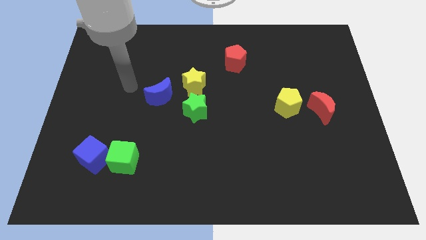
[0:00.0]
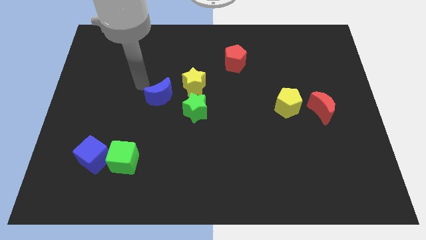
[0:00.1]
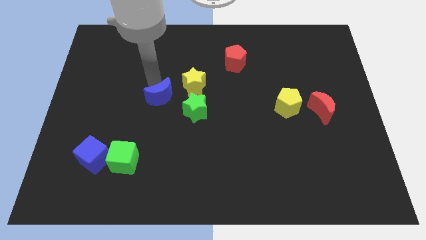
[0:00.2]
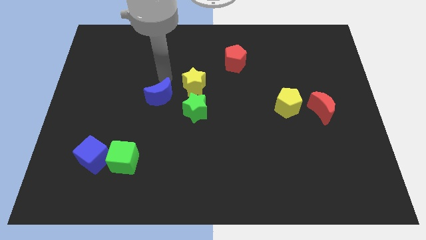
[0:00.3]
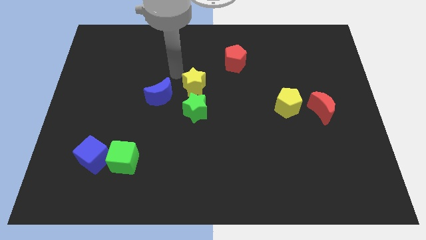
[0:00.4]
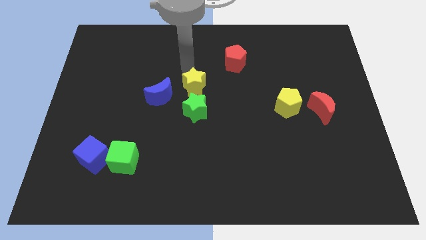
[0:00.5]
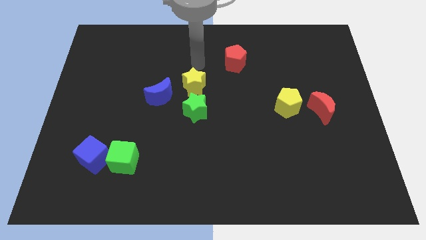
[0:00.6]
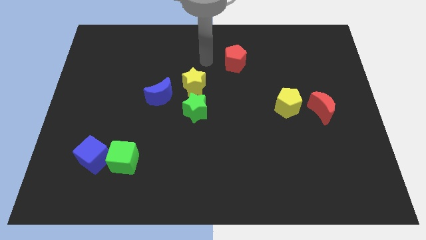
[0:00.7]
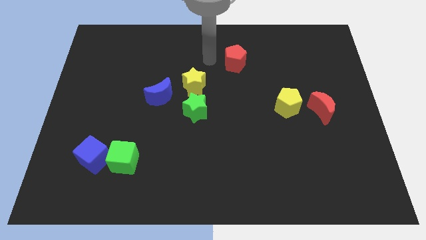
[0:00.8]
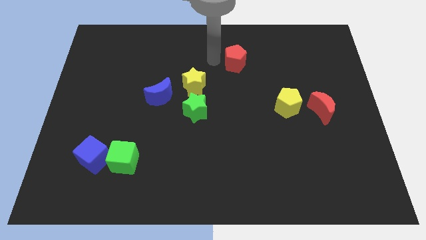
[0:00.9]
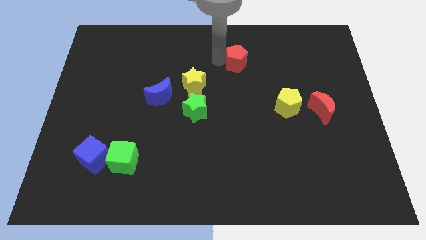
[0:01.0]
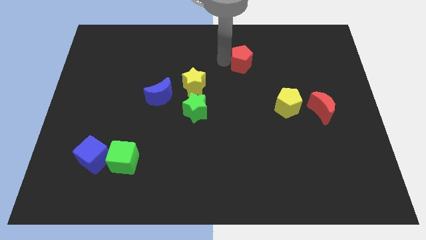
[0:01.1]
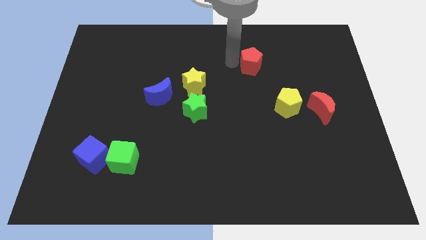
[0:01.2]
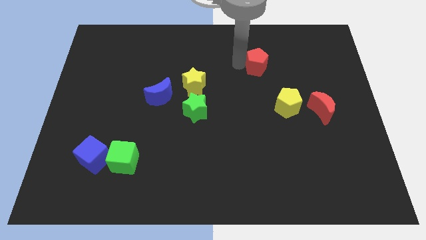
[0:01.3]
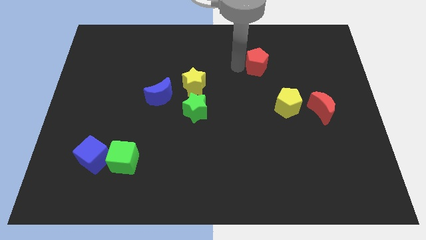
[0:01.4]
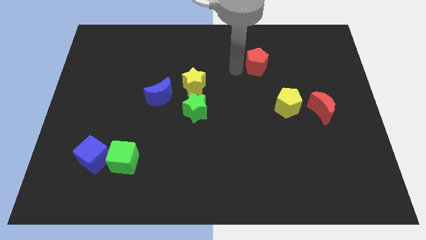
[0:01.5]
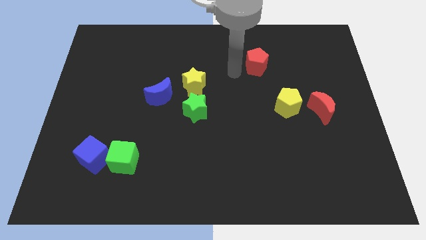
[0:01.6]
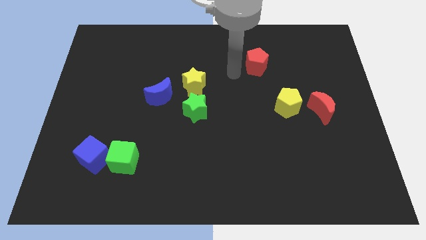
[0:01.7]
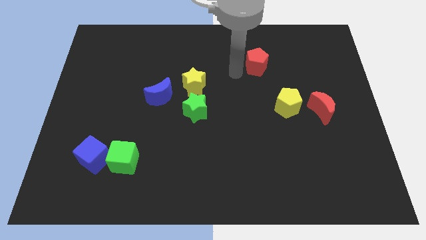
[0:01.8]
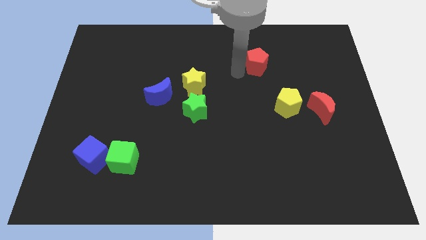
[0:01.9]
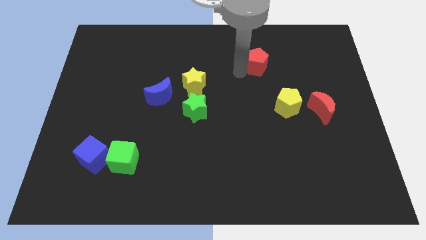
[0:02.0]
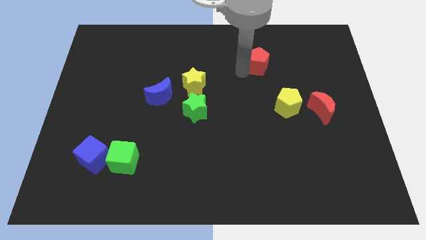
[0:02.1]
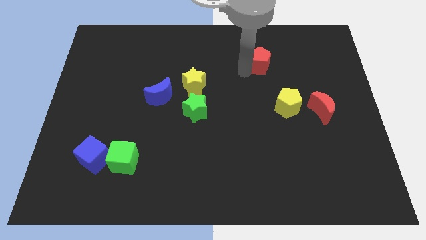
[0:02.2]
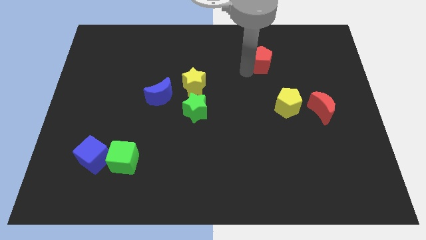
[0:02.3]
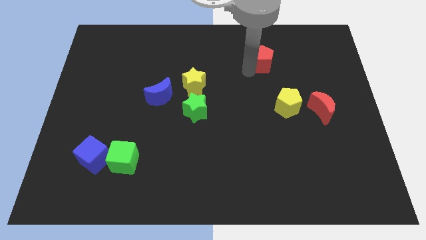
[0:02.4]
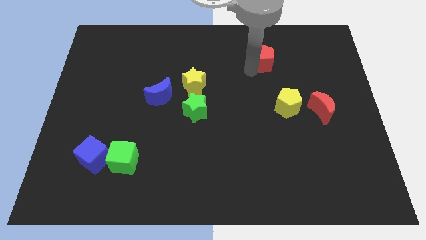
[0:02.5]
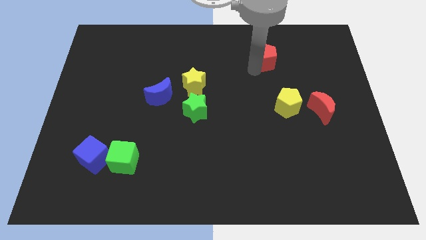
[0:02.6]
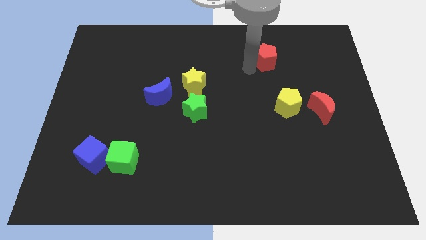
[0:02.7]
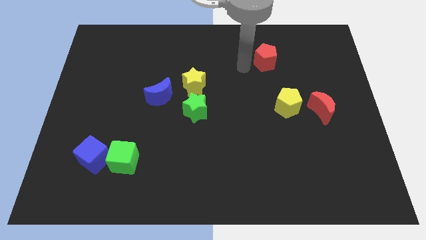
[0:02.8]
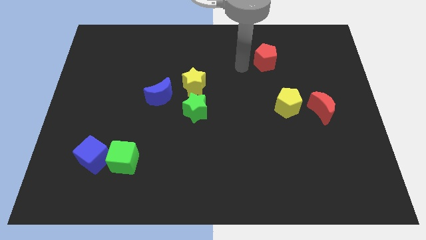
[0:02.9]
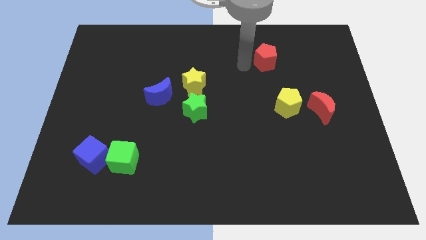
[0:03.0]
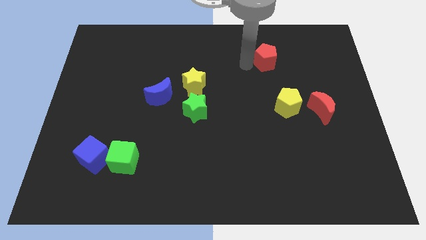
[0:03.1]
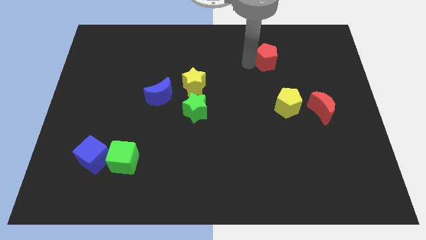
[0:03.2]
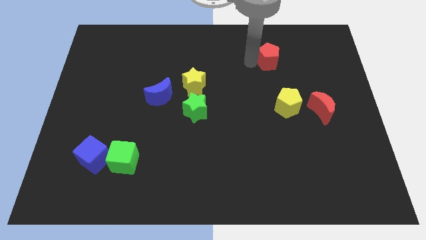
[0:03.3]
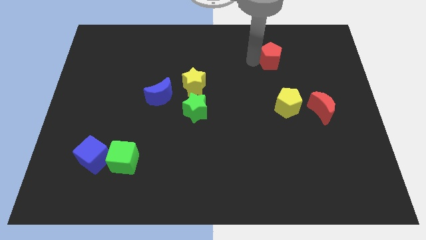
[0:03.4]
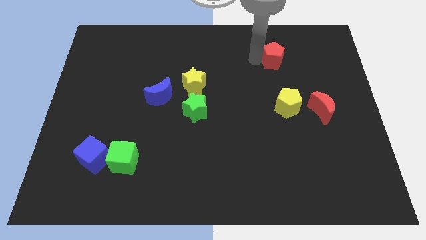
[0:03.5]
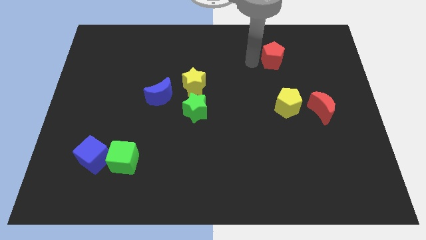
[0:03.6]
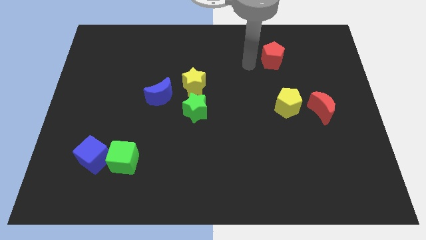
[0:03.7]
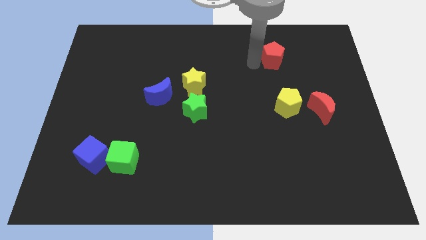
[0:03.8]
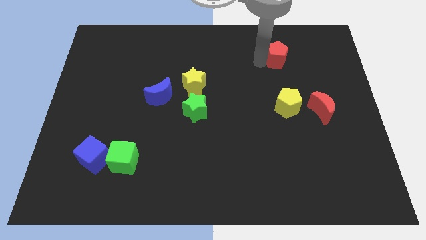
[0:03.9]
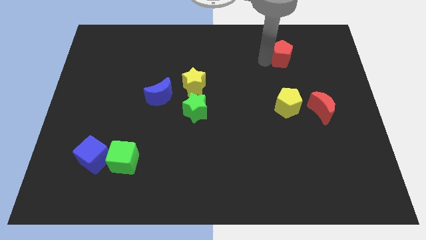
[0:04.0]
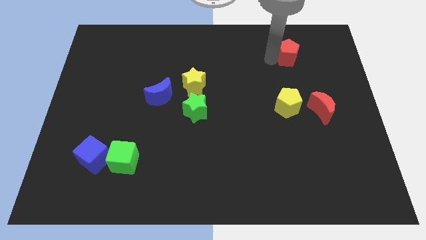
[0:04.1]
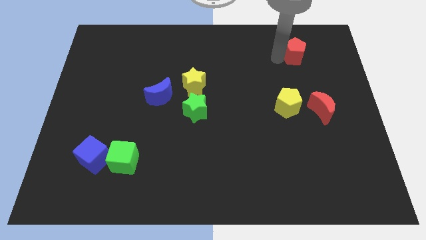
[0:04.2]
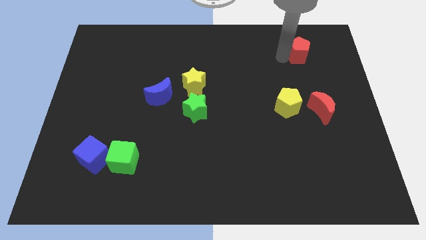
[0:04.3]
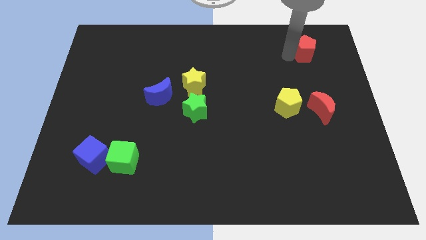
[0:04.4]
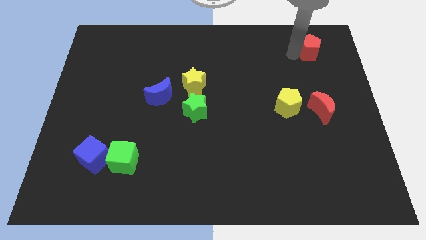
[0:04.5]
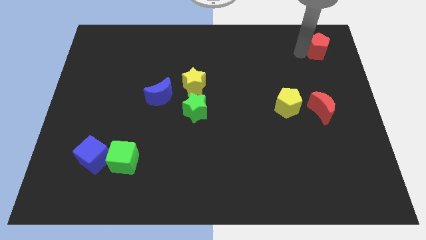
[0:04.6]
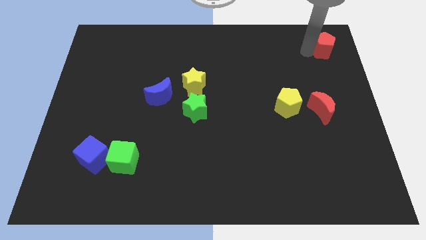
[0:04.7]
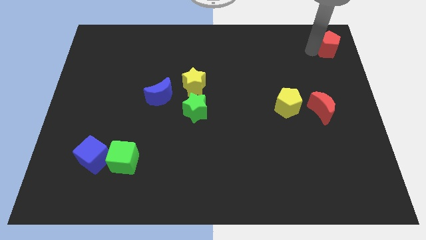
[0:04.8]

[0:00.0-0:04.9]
push the red pentagon to the top right of the board
